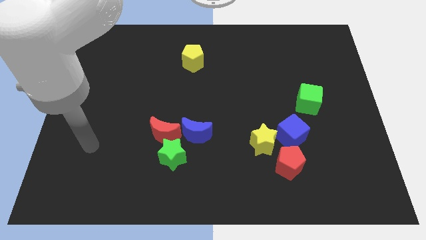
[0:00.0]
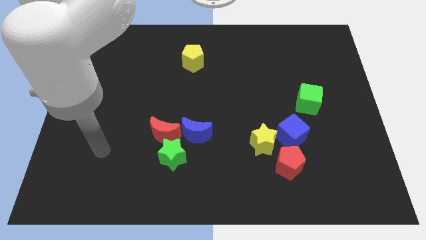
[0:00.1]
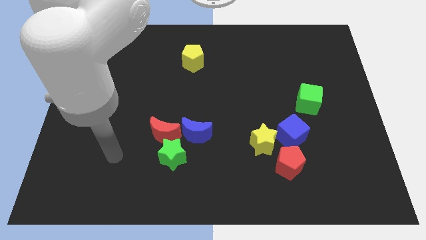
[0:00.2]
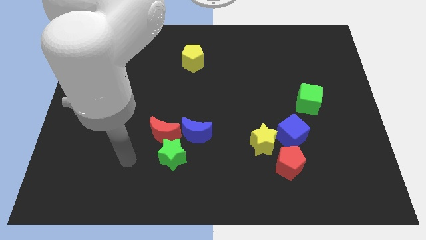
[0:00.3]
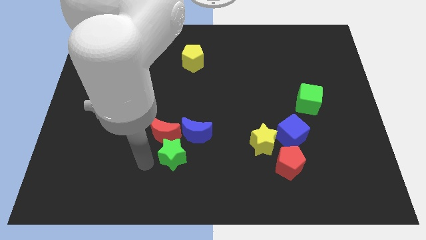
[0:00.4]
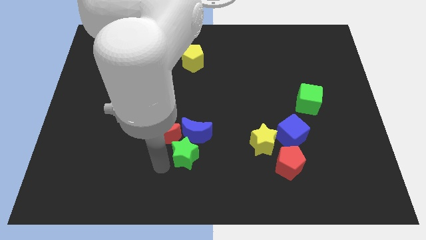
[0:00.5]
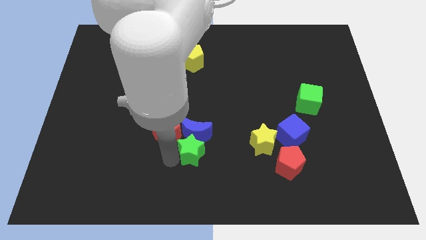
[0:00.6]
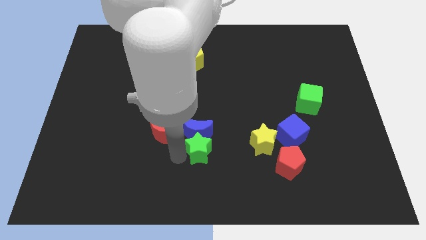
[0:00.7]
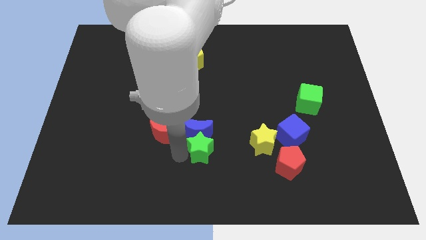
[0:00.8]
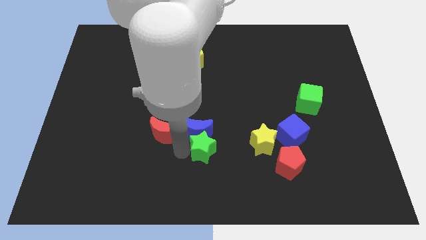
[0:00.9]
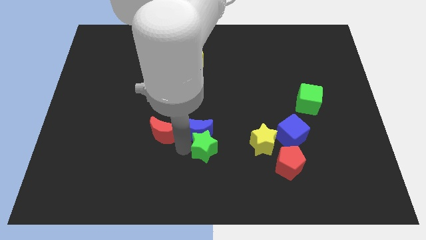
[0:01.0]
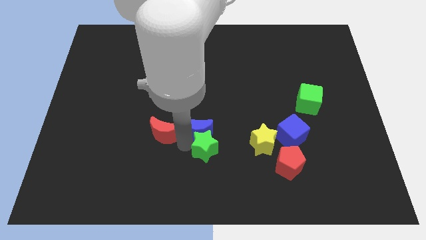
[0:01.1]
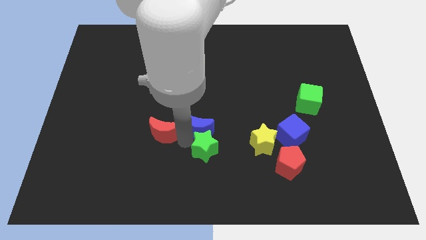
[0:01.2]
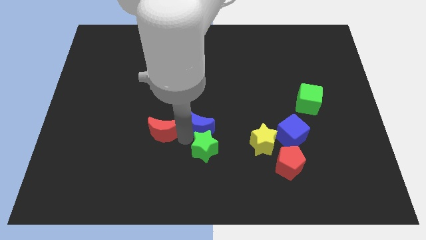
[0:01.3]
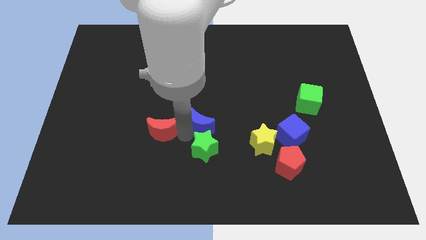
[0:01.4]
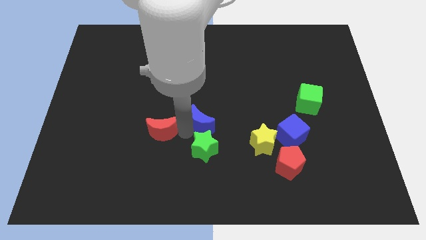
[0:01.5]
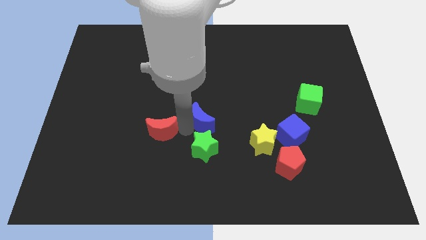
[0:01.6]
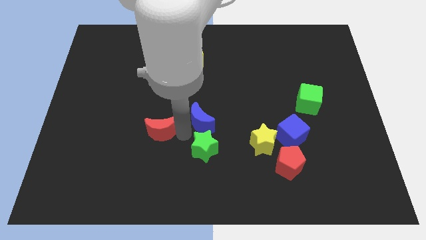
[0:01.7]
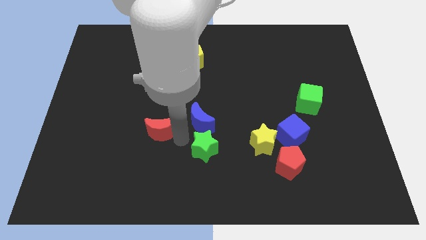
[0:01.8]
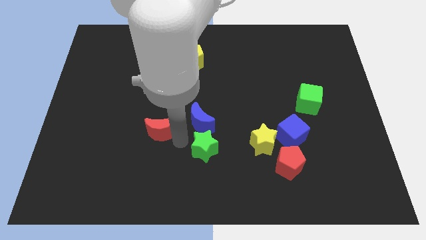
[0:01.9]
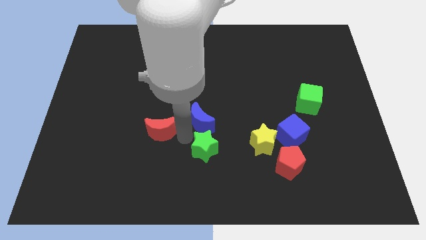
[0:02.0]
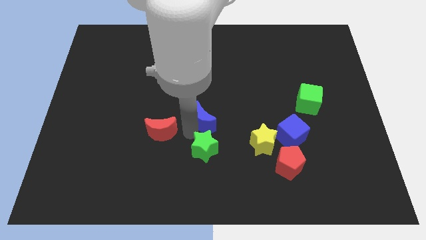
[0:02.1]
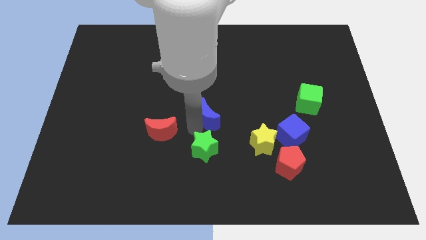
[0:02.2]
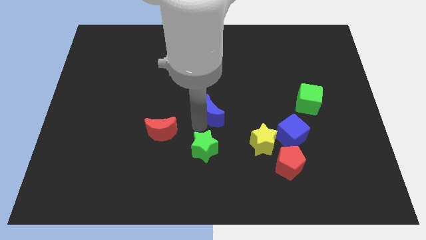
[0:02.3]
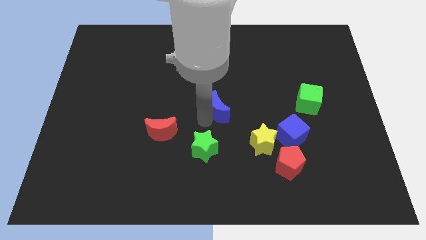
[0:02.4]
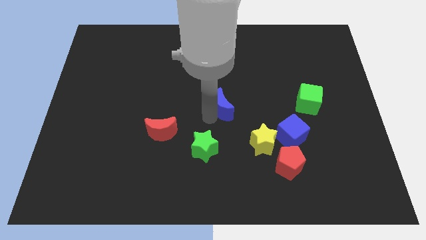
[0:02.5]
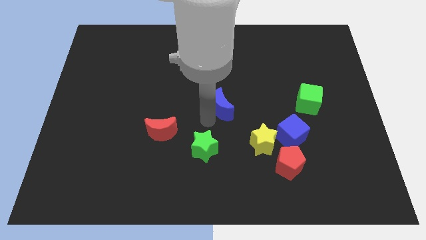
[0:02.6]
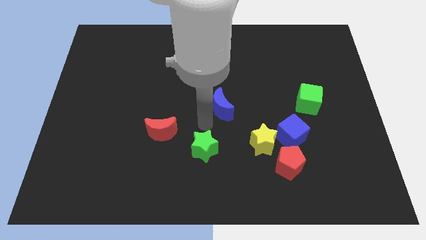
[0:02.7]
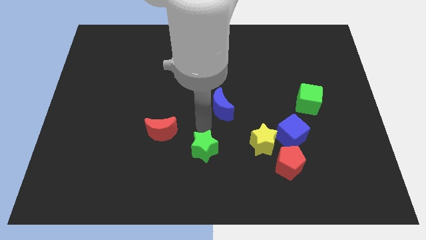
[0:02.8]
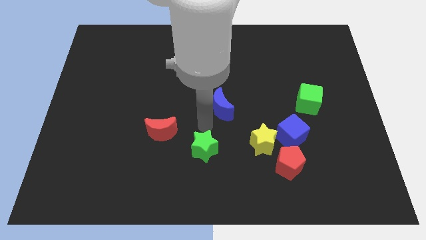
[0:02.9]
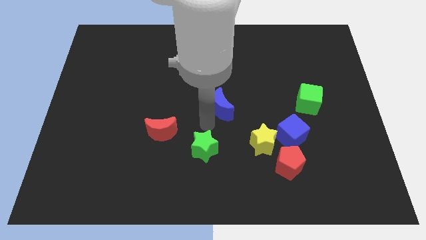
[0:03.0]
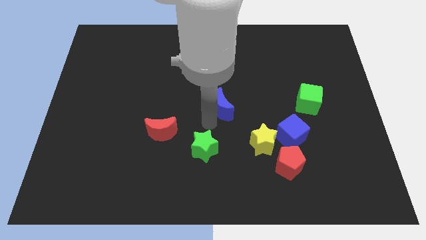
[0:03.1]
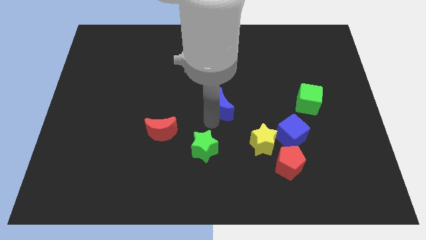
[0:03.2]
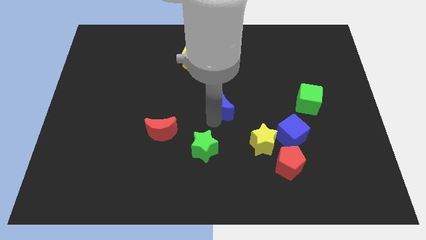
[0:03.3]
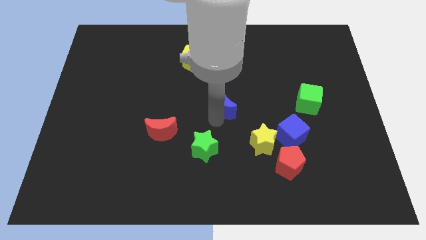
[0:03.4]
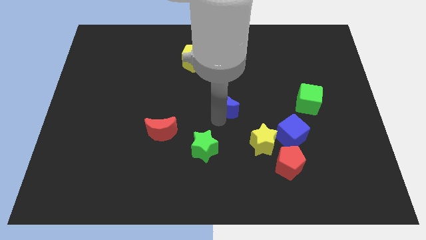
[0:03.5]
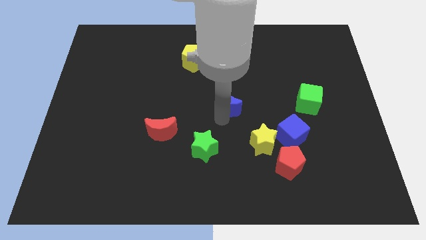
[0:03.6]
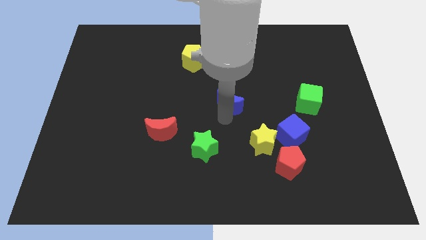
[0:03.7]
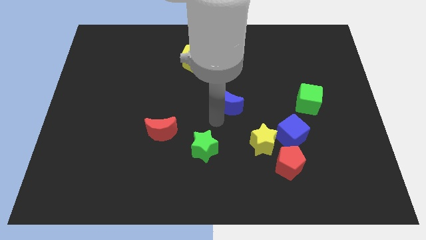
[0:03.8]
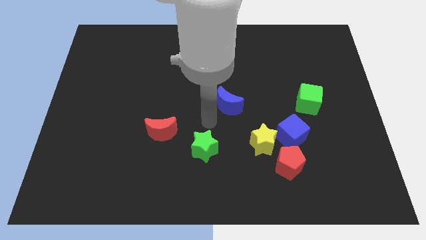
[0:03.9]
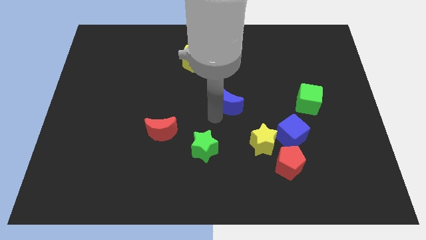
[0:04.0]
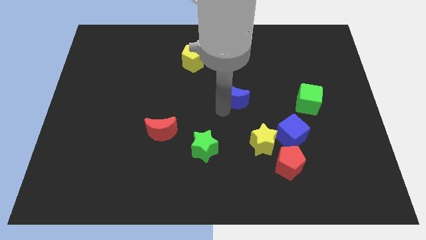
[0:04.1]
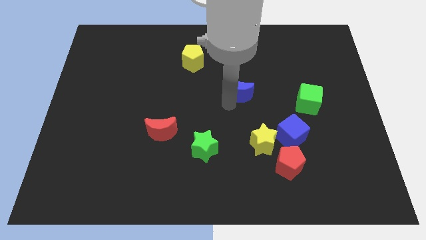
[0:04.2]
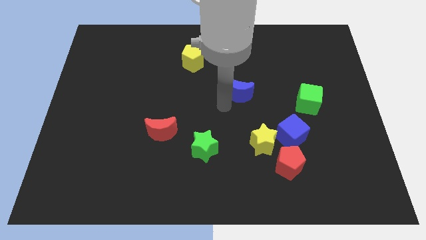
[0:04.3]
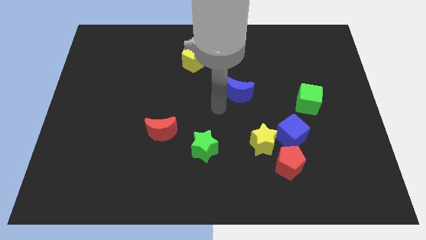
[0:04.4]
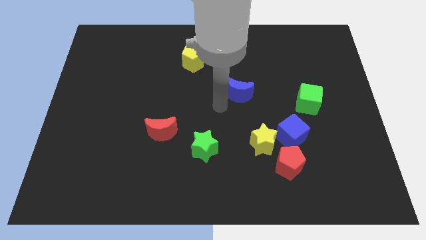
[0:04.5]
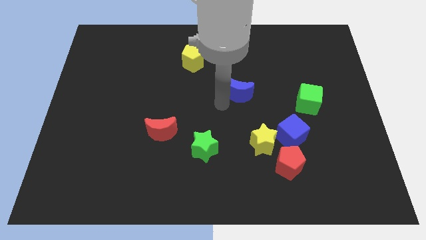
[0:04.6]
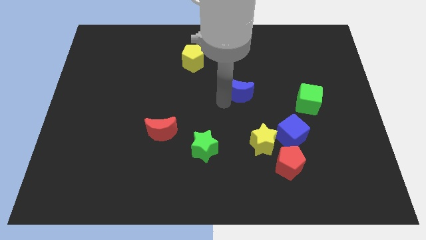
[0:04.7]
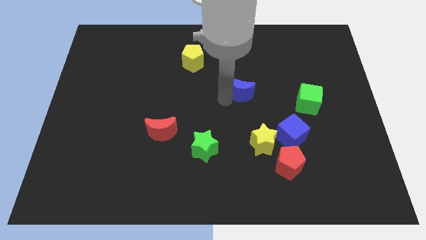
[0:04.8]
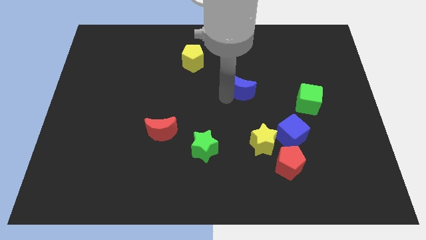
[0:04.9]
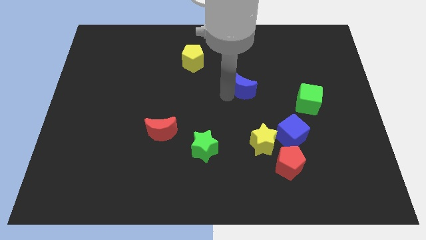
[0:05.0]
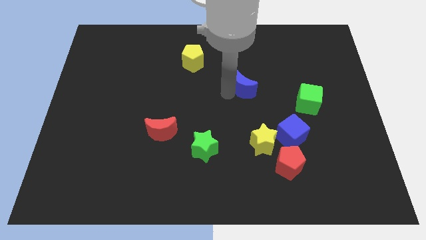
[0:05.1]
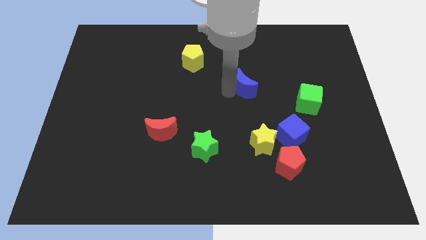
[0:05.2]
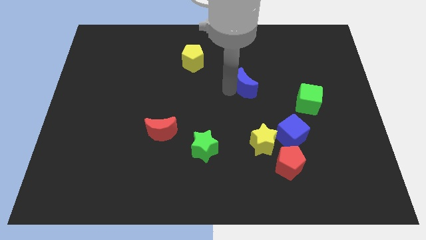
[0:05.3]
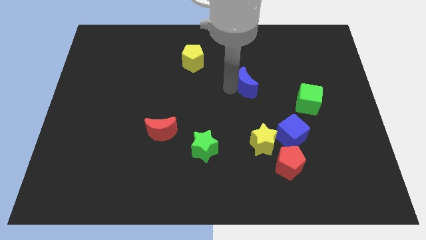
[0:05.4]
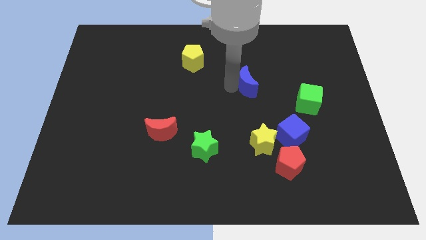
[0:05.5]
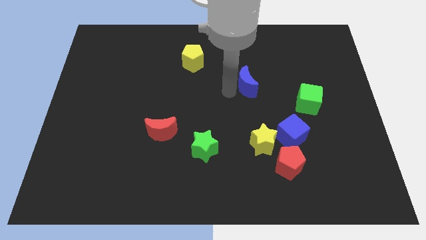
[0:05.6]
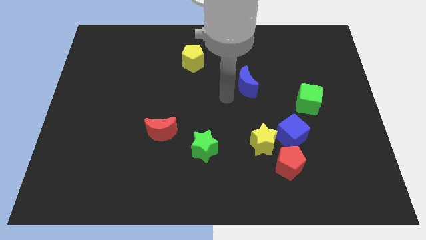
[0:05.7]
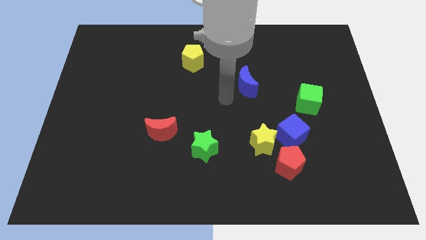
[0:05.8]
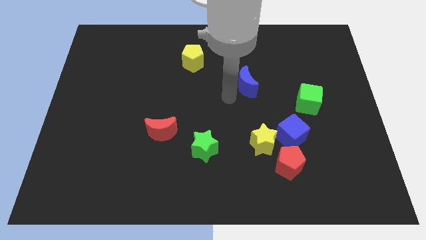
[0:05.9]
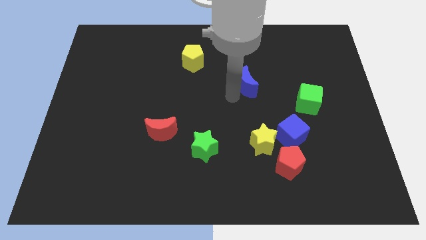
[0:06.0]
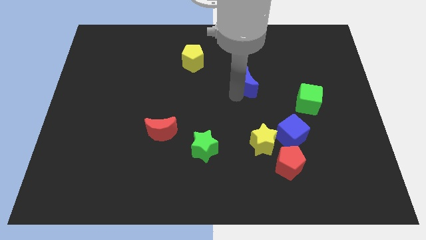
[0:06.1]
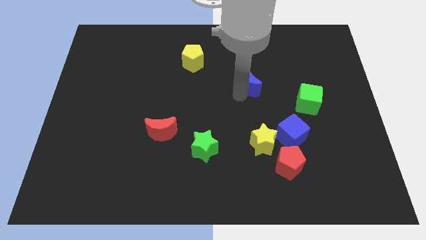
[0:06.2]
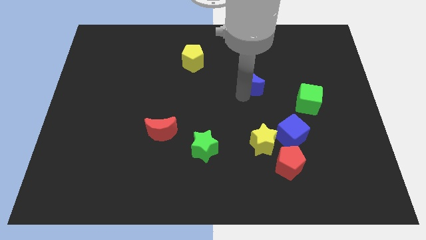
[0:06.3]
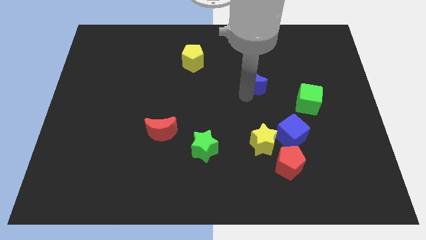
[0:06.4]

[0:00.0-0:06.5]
push the blue moon upwards and to the right diagonally

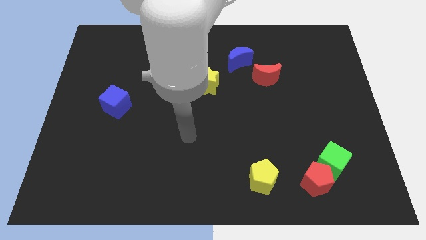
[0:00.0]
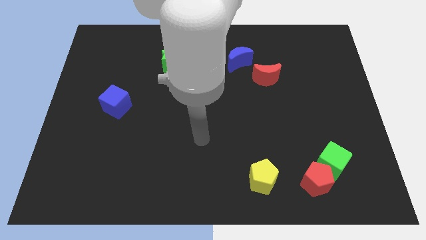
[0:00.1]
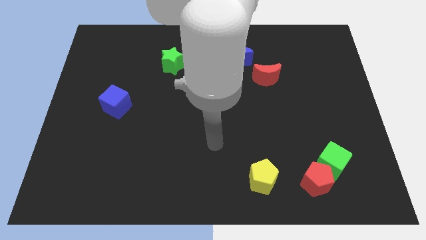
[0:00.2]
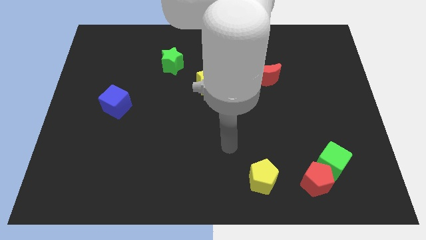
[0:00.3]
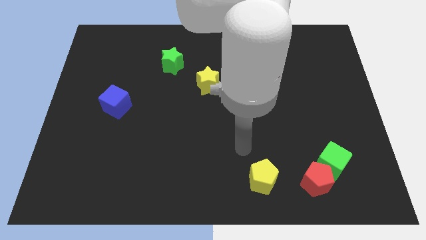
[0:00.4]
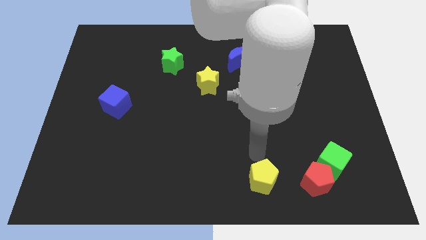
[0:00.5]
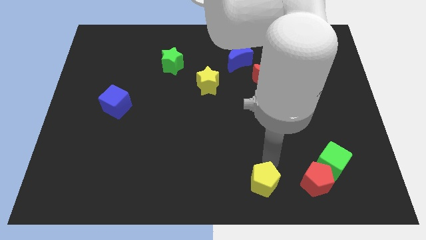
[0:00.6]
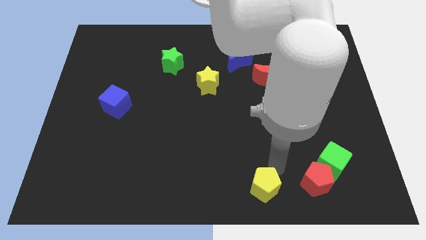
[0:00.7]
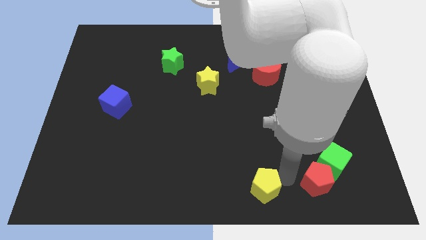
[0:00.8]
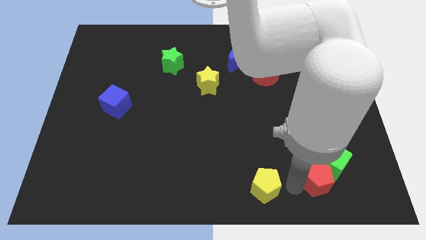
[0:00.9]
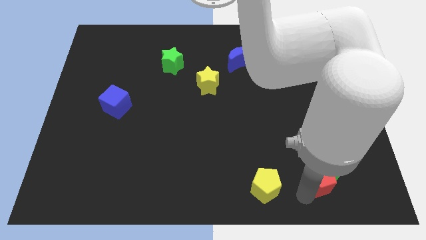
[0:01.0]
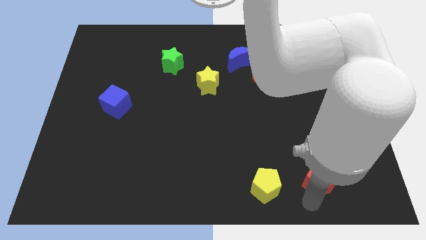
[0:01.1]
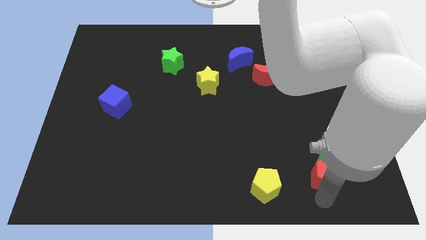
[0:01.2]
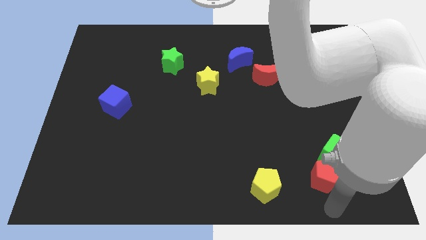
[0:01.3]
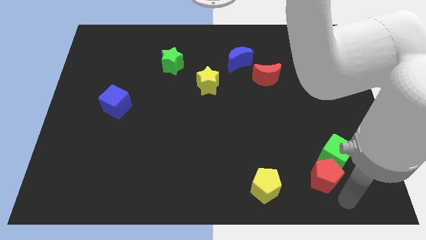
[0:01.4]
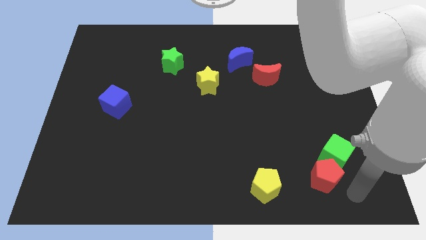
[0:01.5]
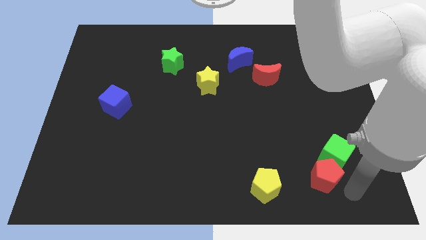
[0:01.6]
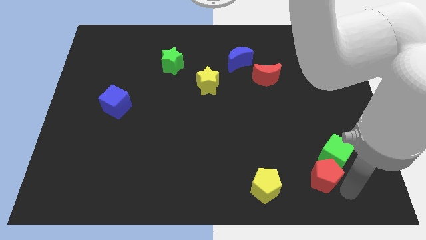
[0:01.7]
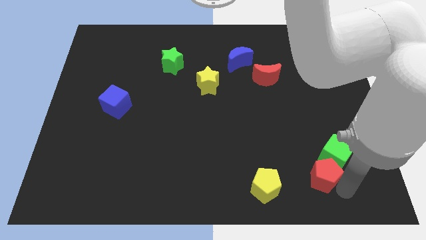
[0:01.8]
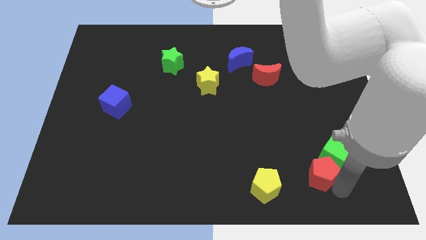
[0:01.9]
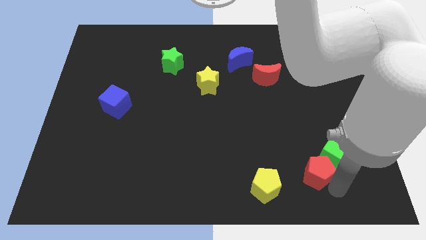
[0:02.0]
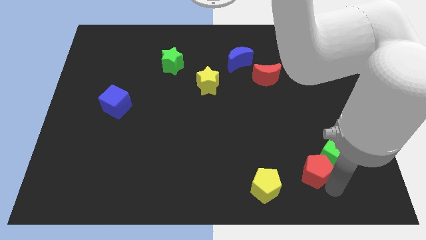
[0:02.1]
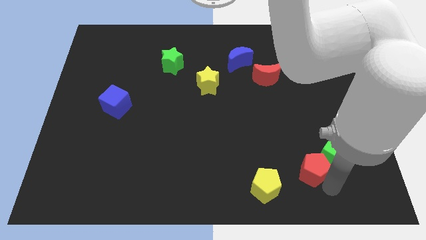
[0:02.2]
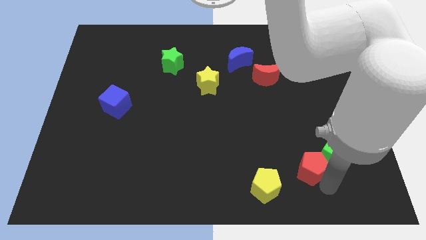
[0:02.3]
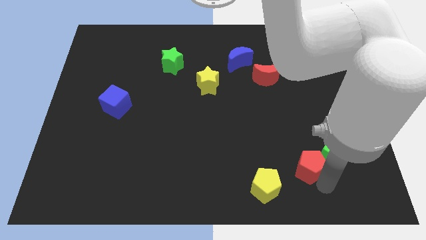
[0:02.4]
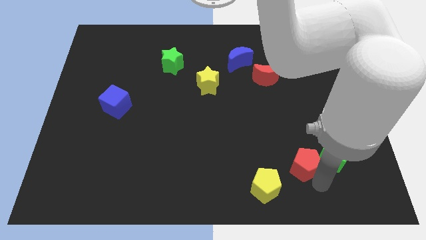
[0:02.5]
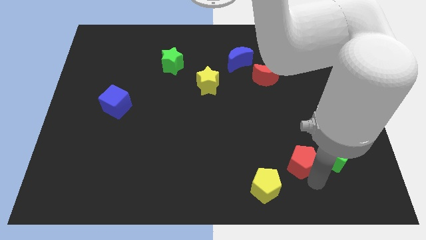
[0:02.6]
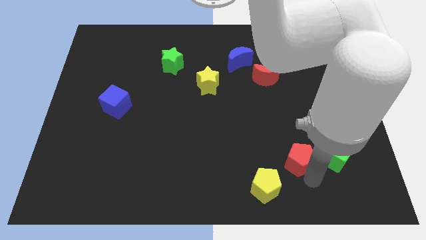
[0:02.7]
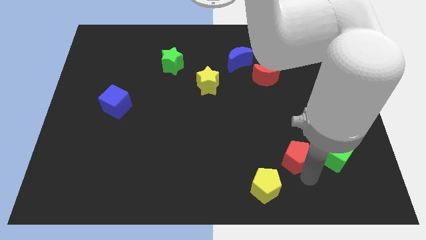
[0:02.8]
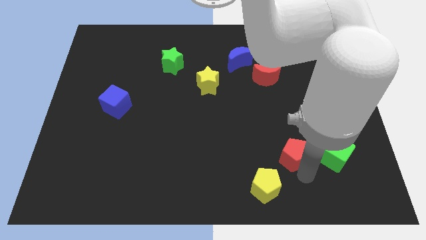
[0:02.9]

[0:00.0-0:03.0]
slightly push the red pentagon upwards and left diagonally
